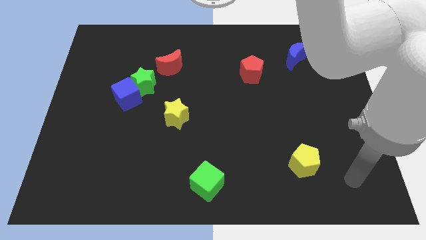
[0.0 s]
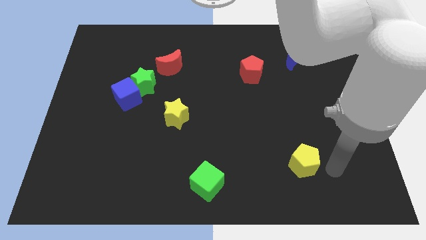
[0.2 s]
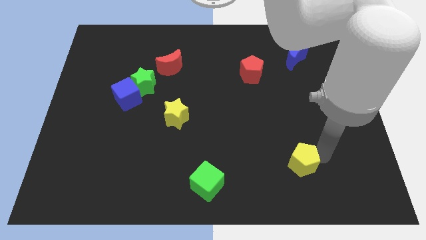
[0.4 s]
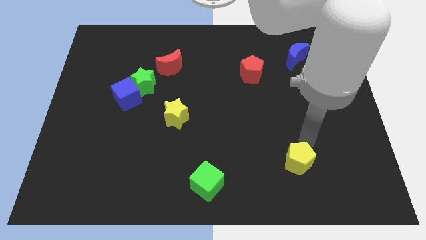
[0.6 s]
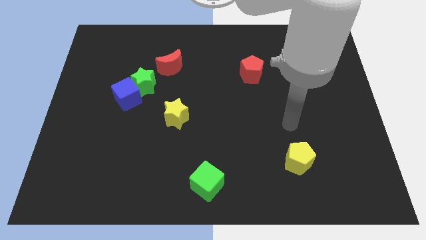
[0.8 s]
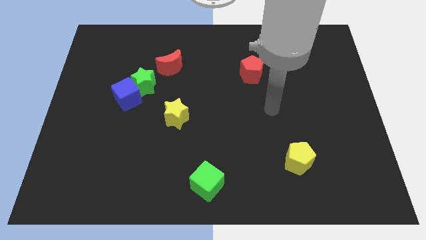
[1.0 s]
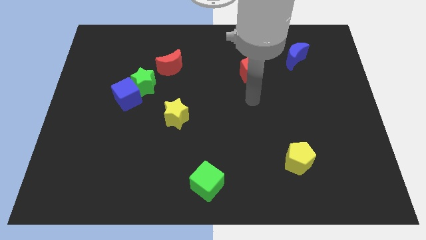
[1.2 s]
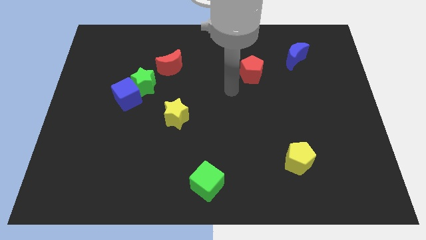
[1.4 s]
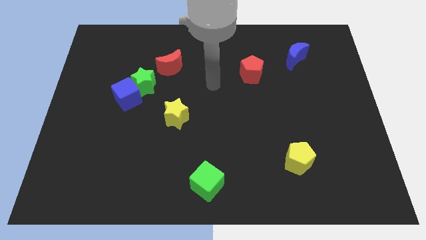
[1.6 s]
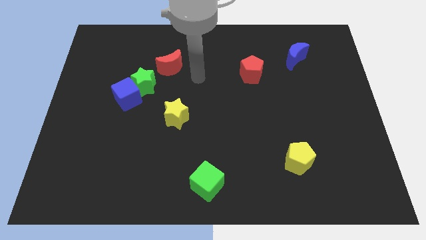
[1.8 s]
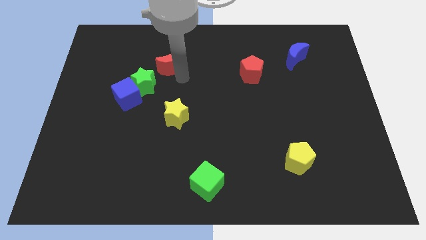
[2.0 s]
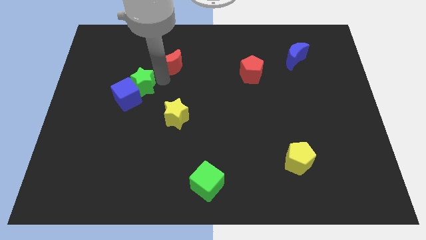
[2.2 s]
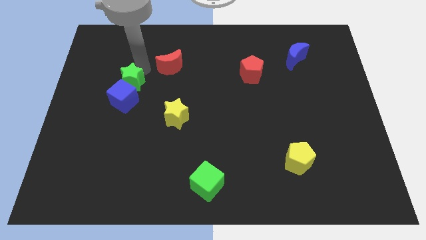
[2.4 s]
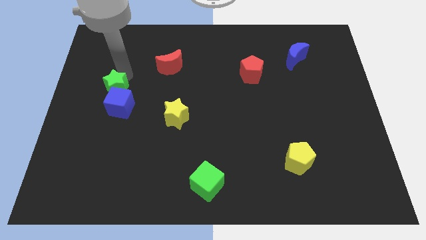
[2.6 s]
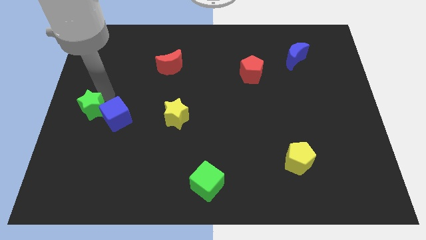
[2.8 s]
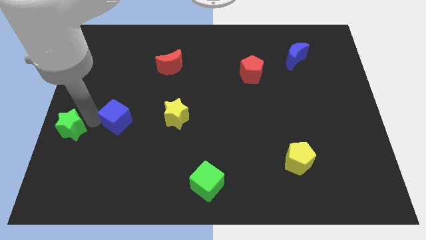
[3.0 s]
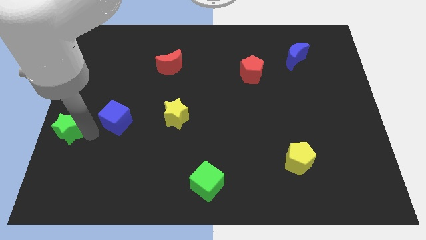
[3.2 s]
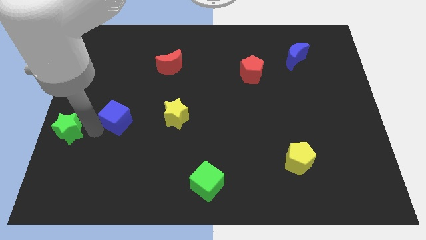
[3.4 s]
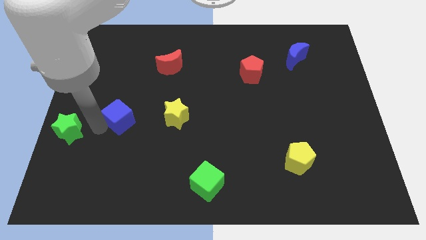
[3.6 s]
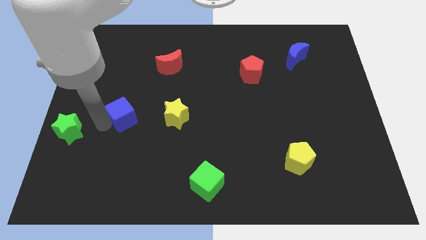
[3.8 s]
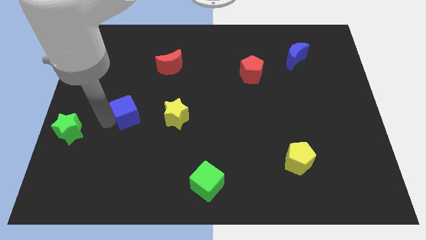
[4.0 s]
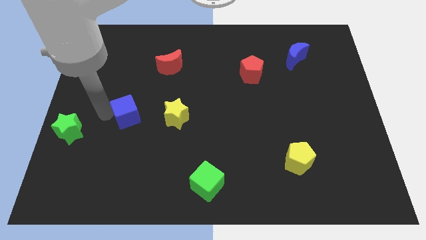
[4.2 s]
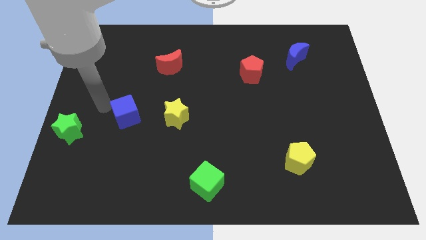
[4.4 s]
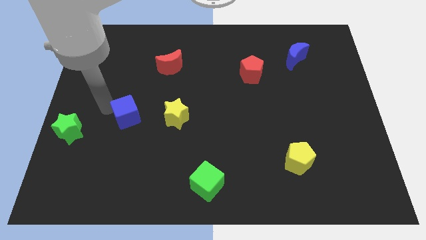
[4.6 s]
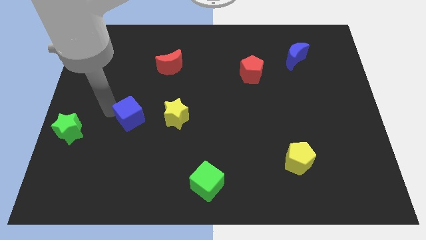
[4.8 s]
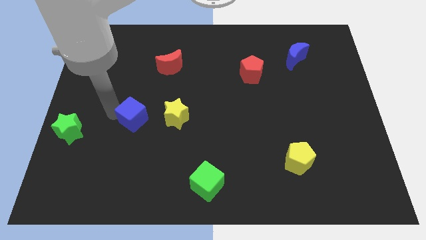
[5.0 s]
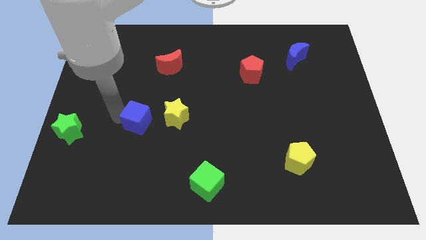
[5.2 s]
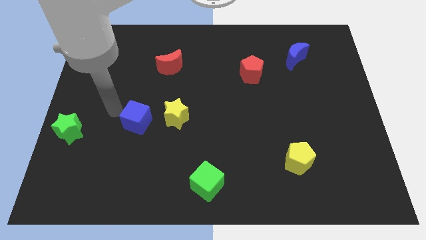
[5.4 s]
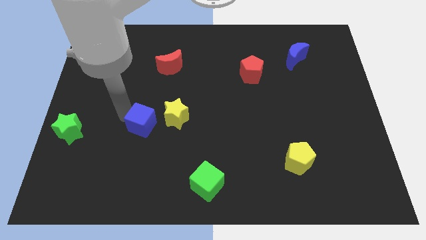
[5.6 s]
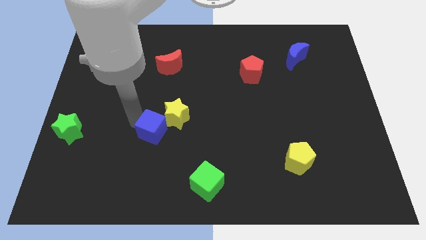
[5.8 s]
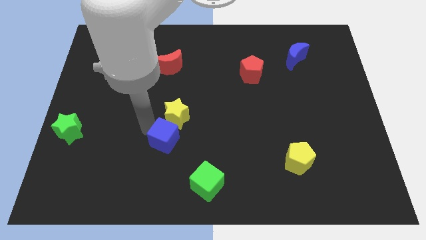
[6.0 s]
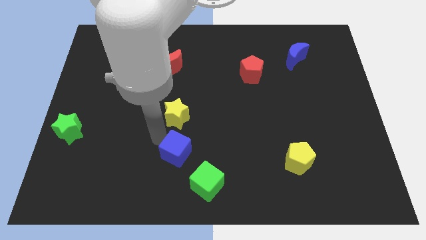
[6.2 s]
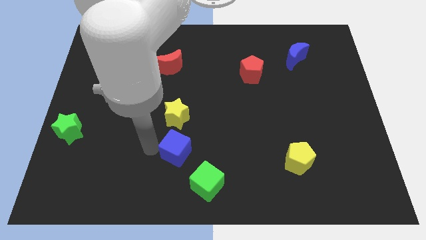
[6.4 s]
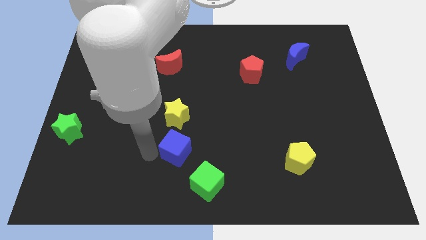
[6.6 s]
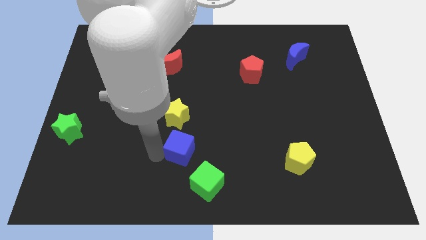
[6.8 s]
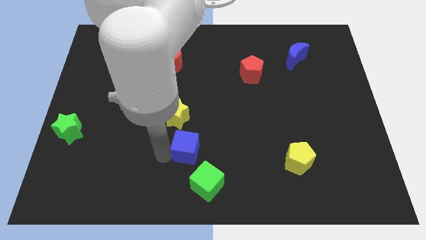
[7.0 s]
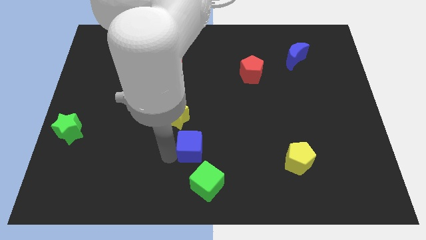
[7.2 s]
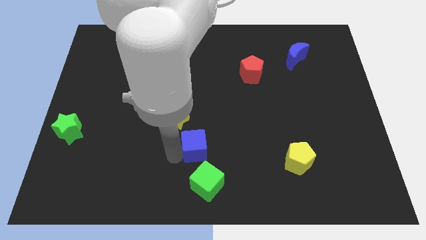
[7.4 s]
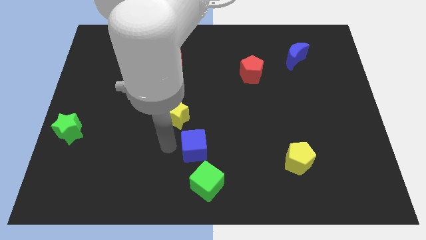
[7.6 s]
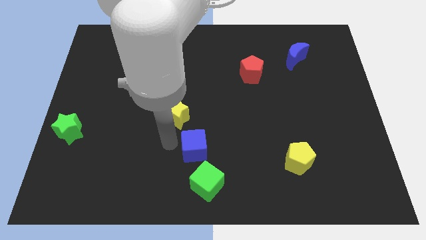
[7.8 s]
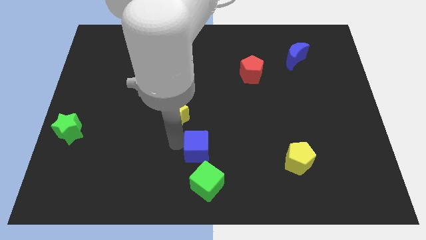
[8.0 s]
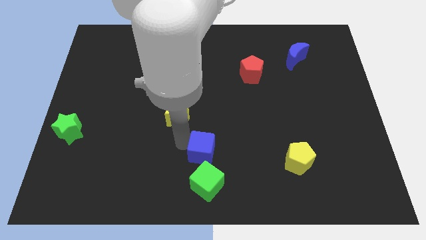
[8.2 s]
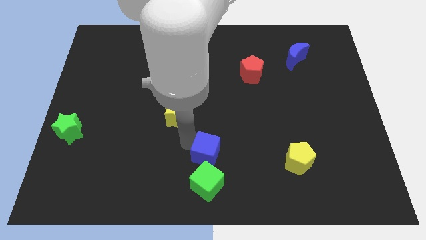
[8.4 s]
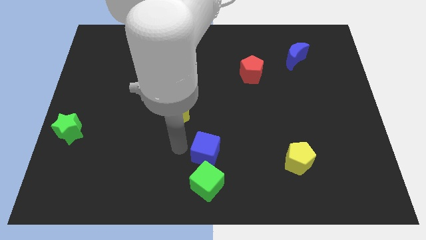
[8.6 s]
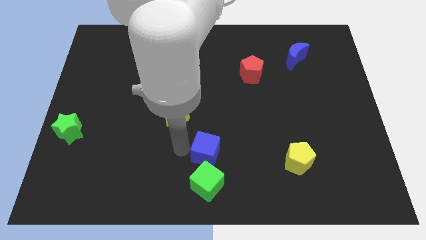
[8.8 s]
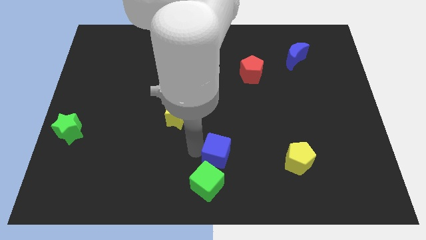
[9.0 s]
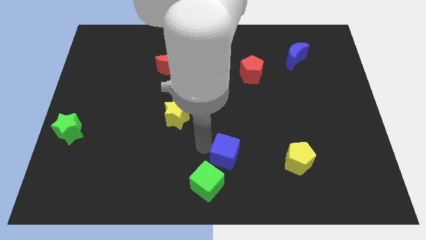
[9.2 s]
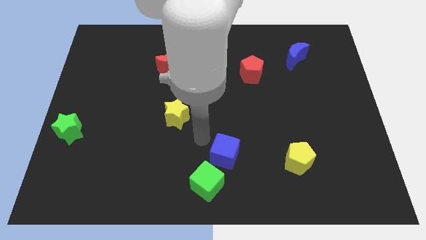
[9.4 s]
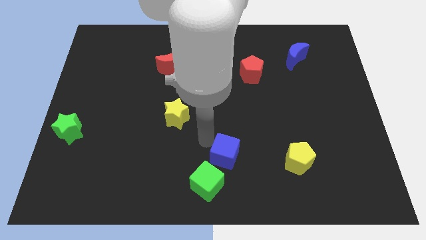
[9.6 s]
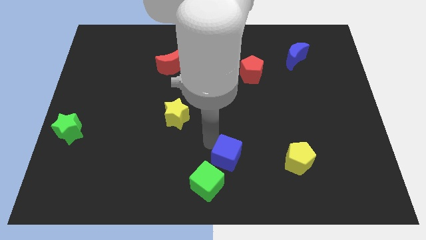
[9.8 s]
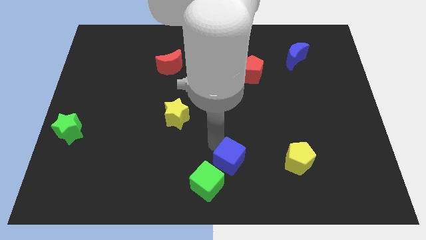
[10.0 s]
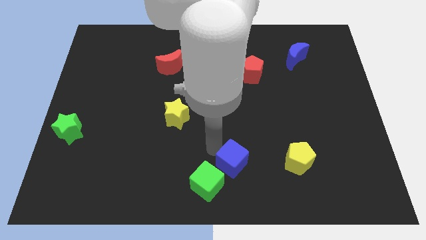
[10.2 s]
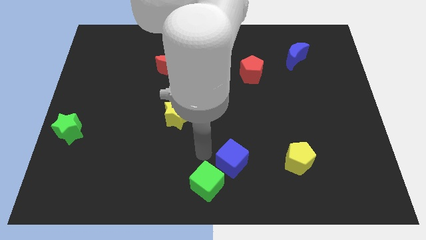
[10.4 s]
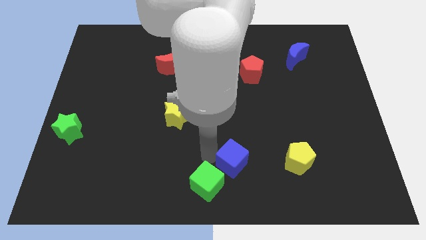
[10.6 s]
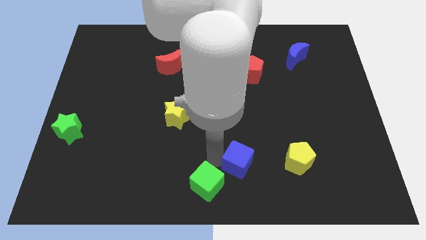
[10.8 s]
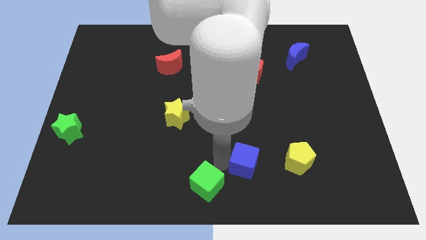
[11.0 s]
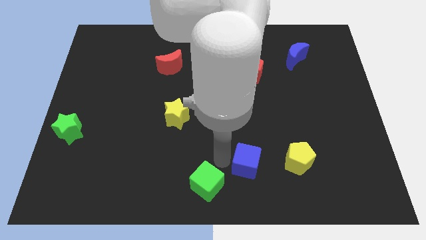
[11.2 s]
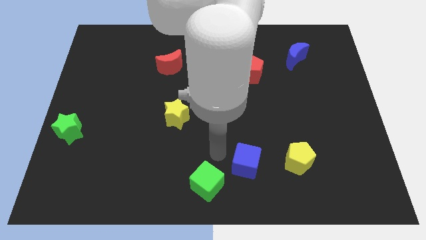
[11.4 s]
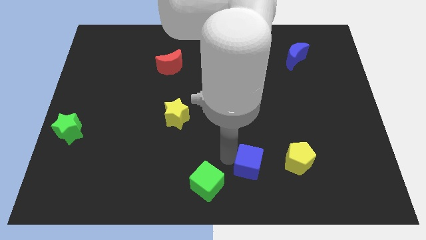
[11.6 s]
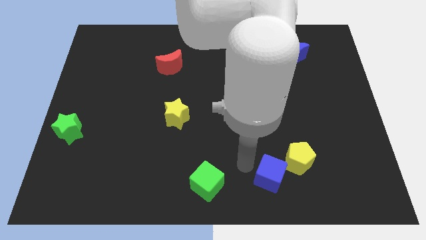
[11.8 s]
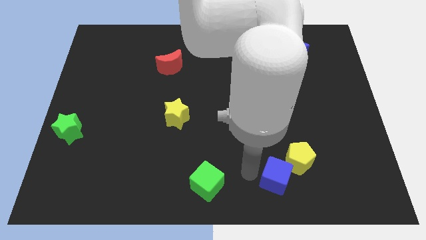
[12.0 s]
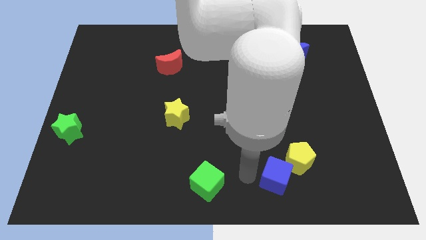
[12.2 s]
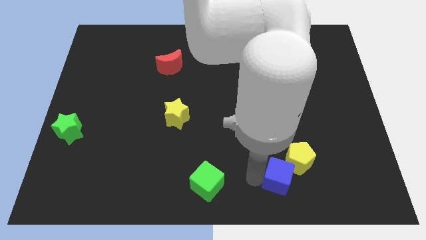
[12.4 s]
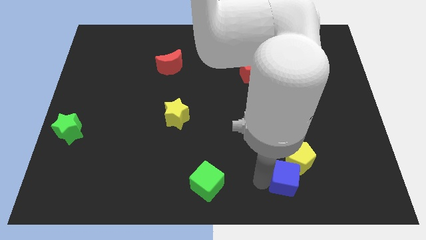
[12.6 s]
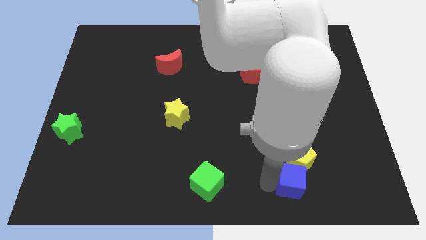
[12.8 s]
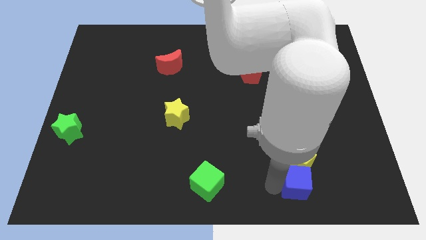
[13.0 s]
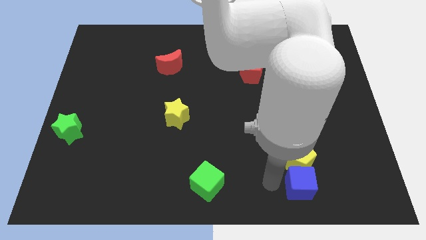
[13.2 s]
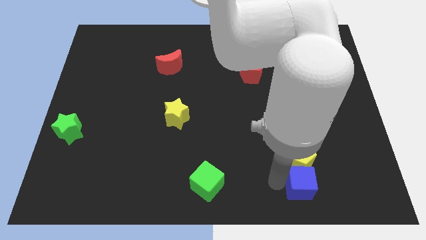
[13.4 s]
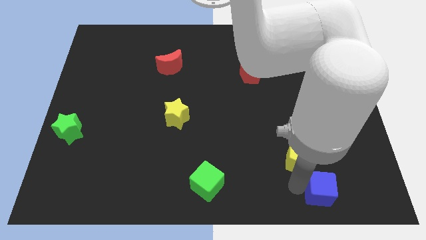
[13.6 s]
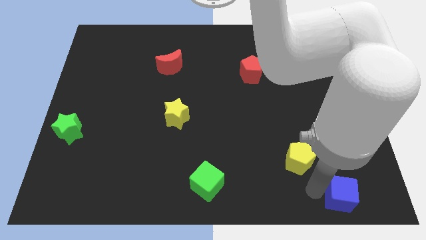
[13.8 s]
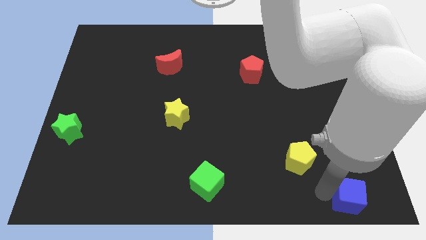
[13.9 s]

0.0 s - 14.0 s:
move the blue cube to the lower right corner
